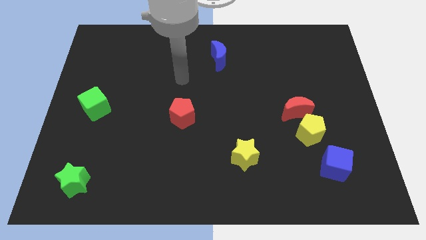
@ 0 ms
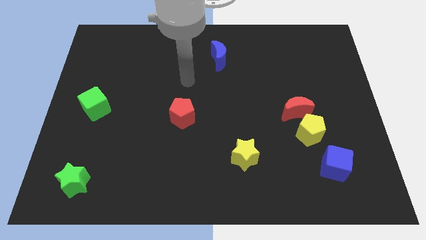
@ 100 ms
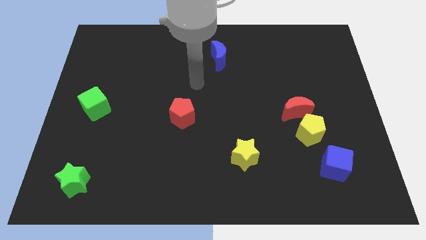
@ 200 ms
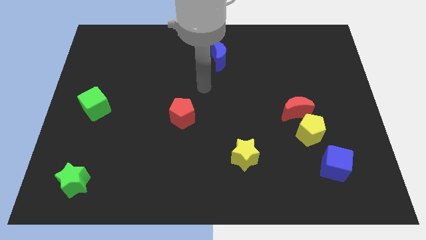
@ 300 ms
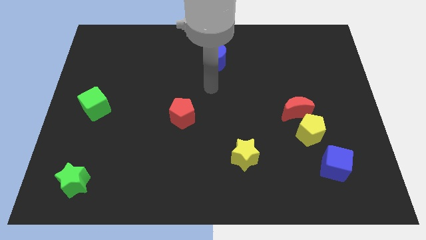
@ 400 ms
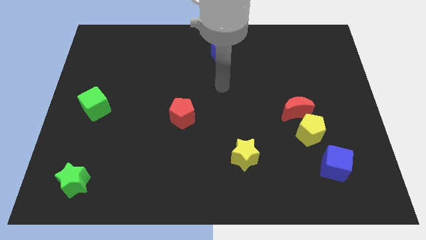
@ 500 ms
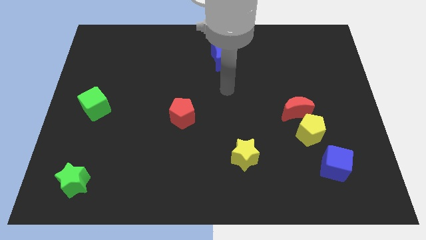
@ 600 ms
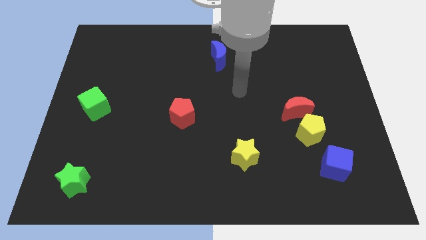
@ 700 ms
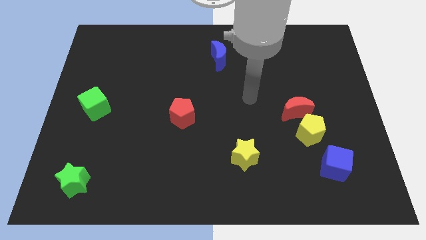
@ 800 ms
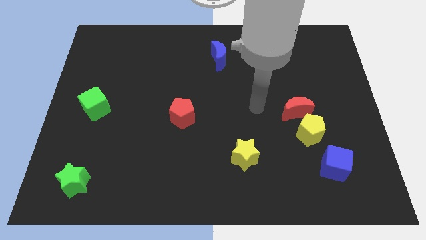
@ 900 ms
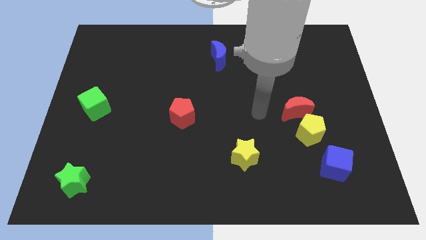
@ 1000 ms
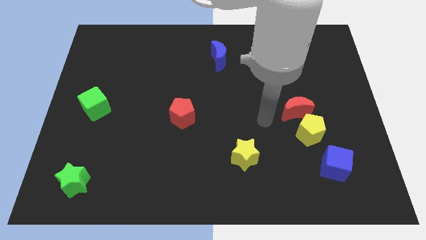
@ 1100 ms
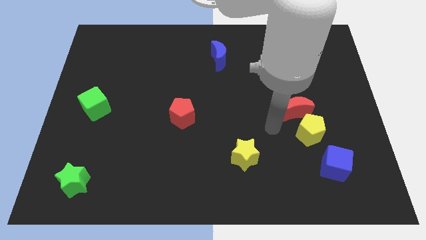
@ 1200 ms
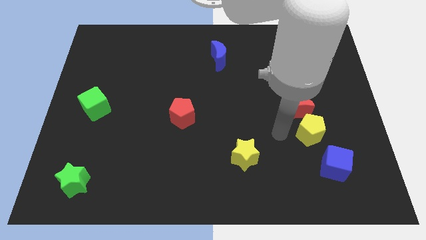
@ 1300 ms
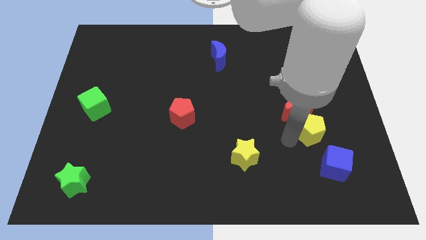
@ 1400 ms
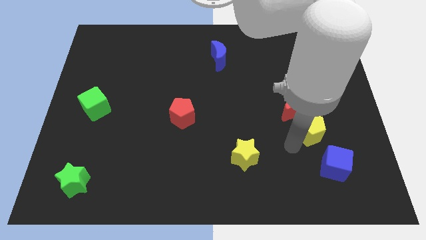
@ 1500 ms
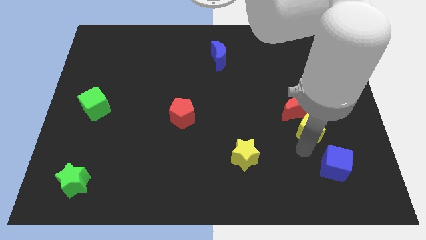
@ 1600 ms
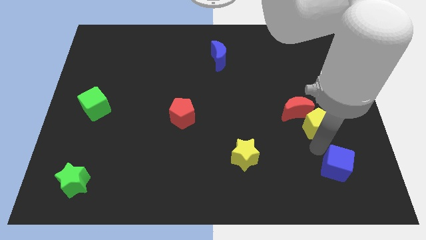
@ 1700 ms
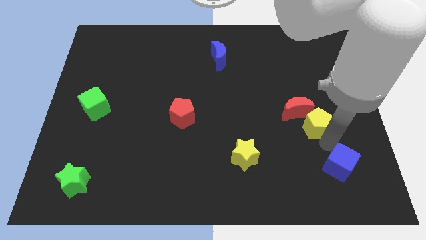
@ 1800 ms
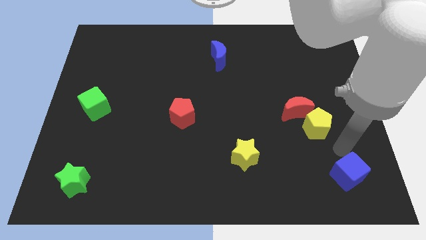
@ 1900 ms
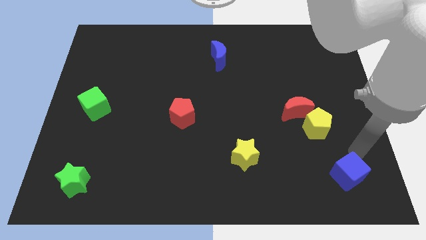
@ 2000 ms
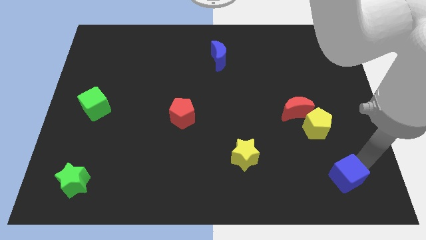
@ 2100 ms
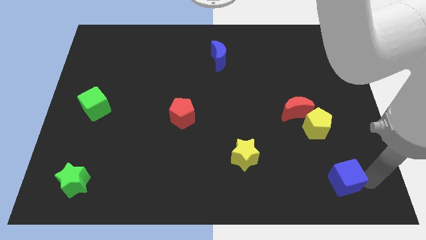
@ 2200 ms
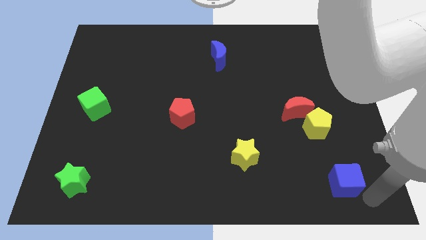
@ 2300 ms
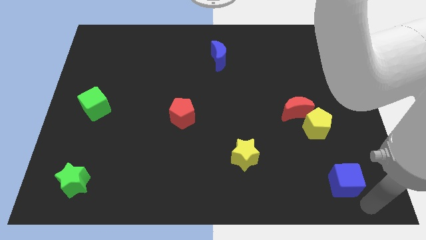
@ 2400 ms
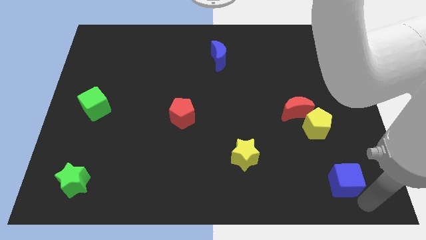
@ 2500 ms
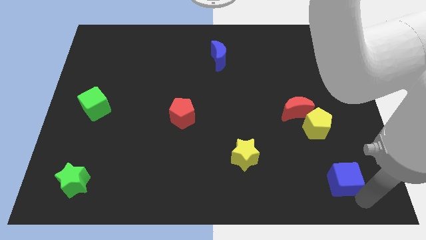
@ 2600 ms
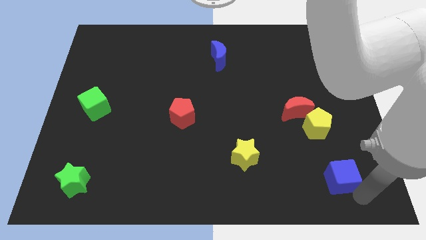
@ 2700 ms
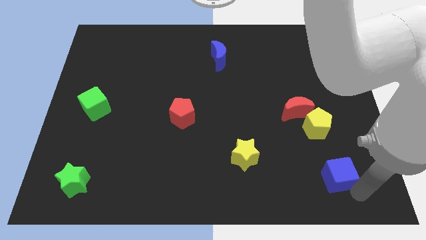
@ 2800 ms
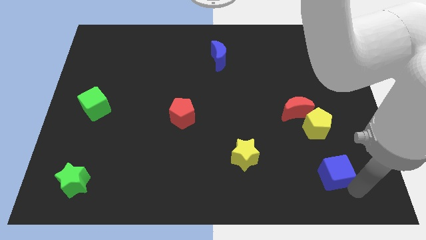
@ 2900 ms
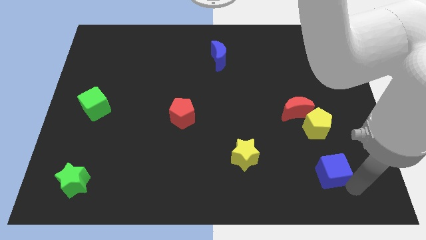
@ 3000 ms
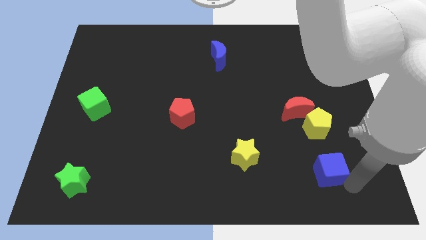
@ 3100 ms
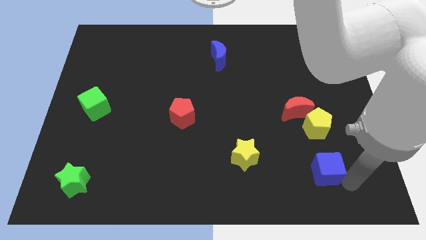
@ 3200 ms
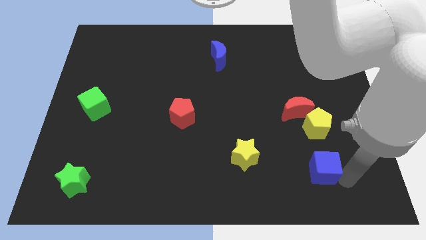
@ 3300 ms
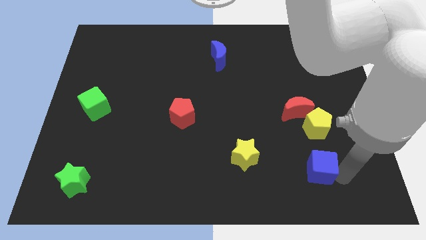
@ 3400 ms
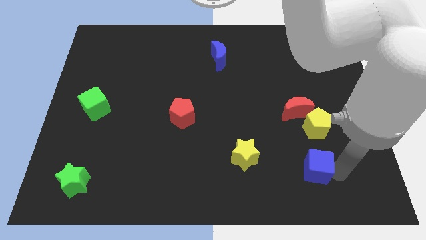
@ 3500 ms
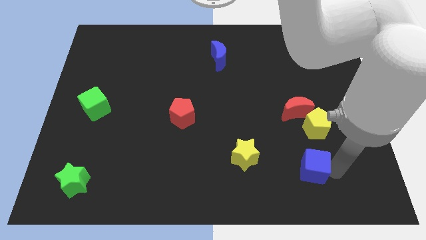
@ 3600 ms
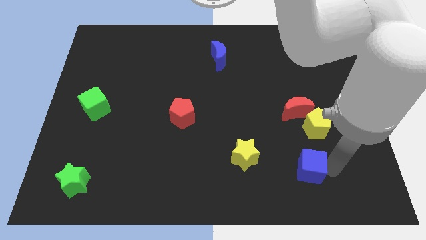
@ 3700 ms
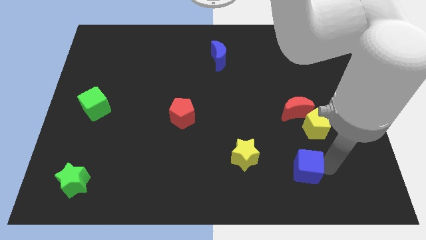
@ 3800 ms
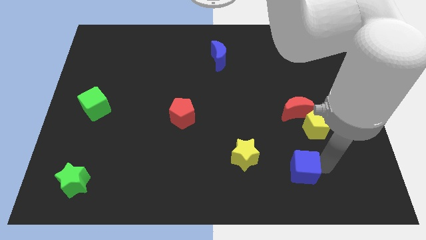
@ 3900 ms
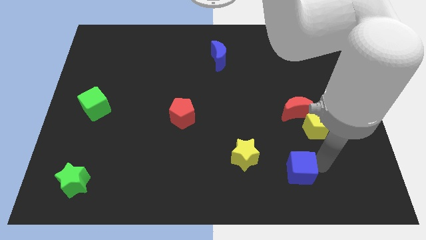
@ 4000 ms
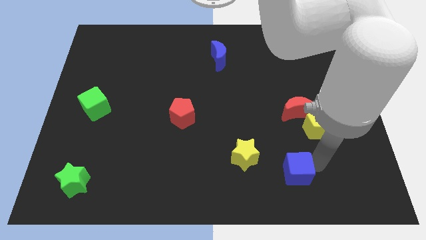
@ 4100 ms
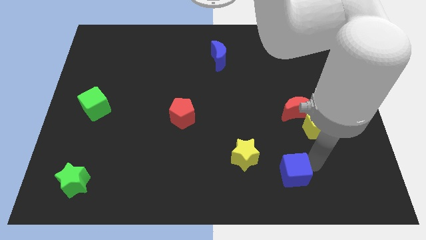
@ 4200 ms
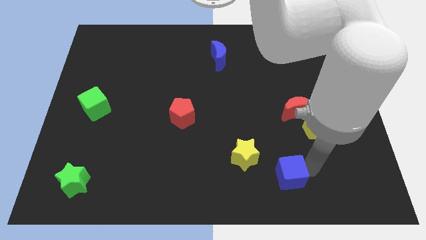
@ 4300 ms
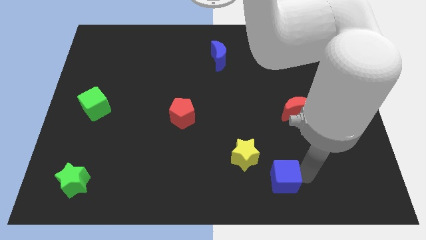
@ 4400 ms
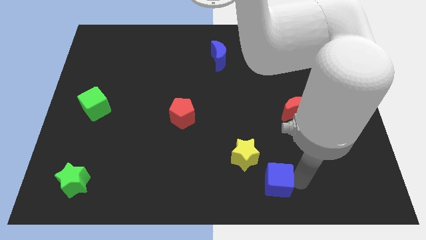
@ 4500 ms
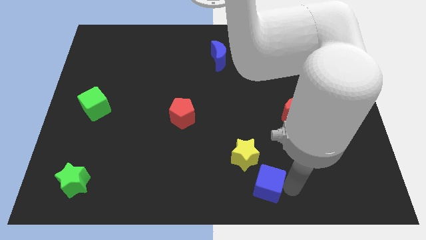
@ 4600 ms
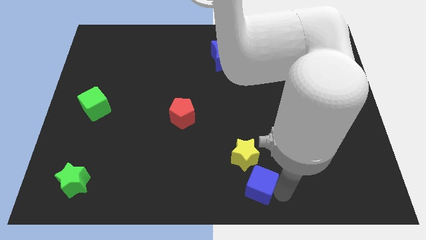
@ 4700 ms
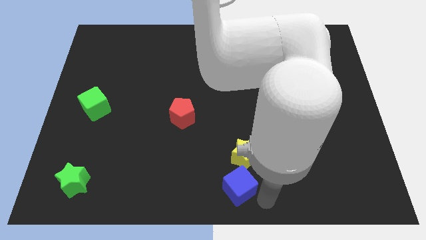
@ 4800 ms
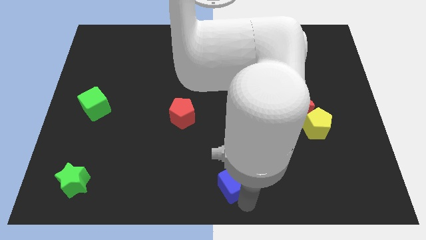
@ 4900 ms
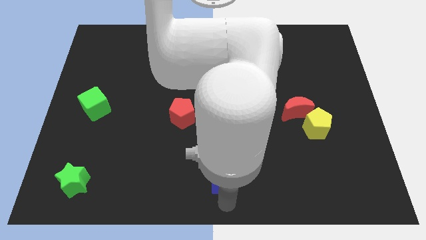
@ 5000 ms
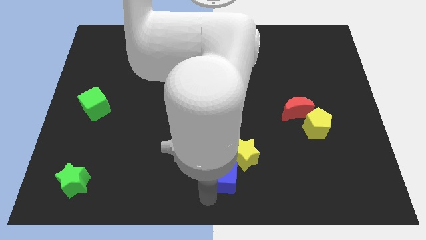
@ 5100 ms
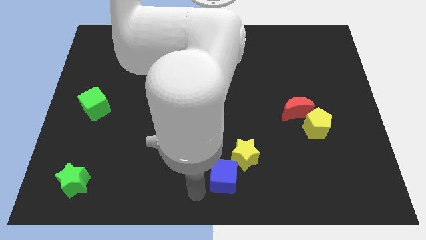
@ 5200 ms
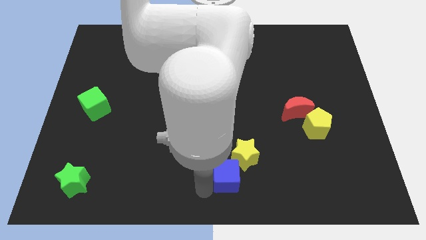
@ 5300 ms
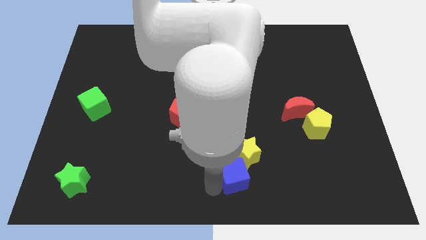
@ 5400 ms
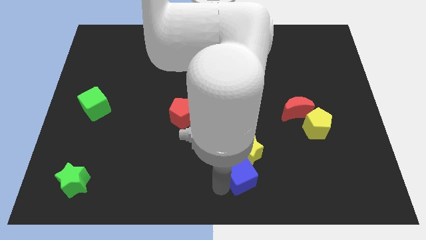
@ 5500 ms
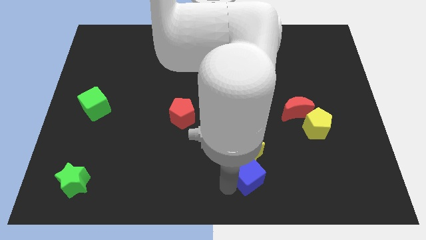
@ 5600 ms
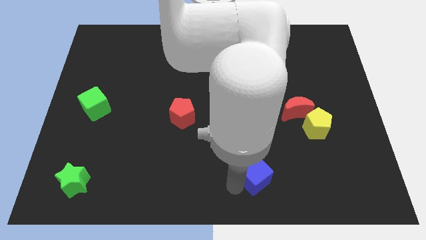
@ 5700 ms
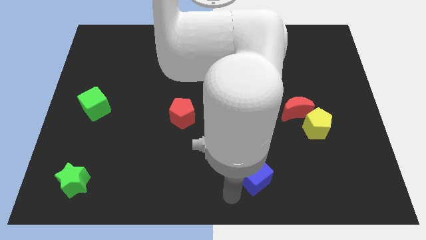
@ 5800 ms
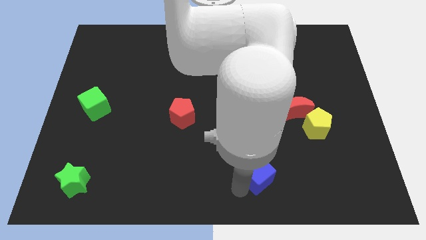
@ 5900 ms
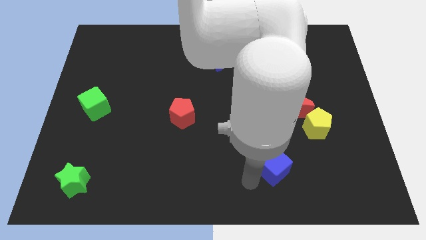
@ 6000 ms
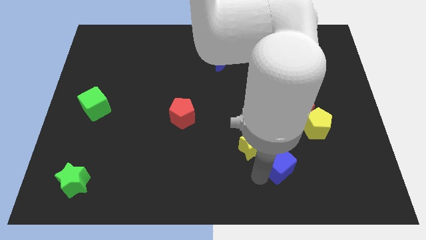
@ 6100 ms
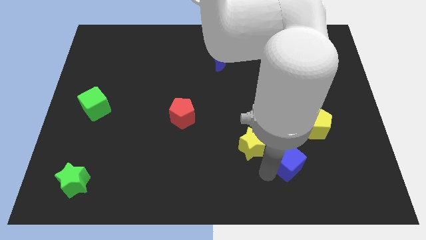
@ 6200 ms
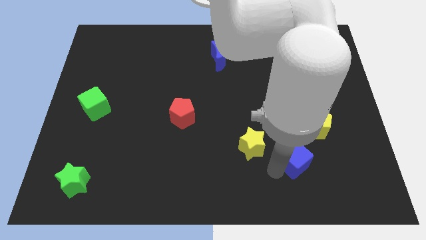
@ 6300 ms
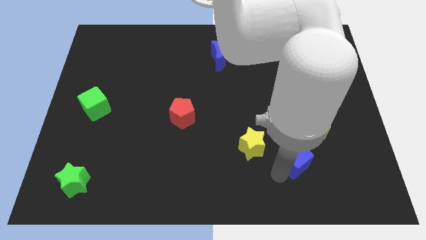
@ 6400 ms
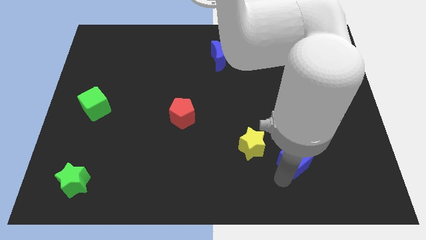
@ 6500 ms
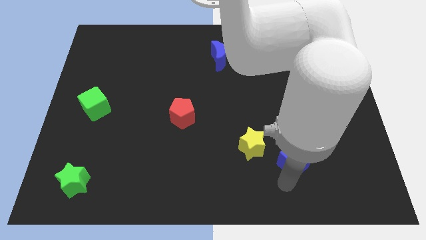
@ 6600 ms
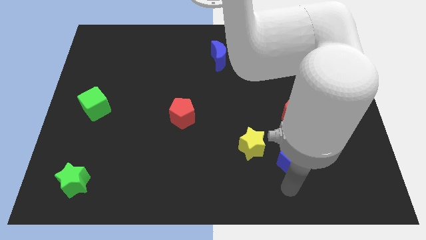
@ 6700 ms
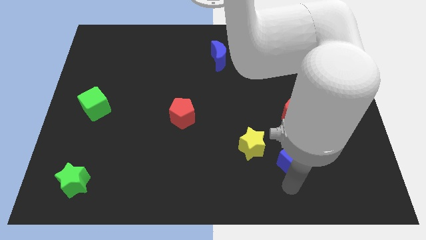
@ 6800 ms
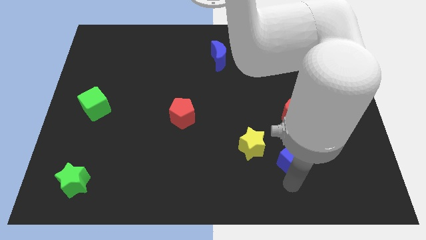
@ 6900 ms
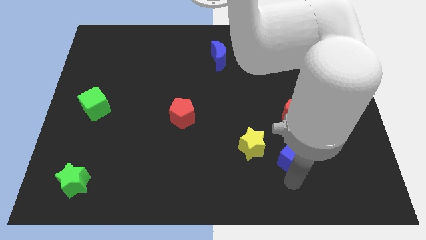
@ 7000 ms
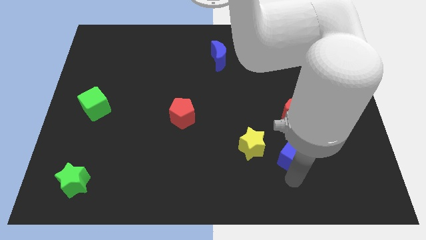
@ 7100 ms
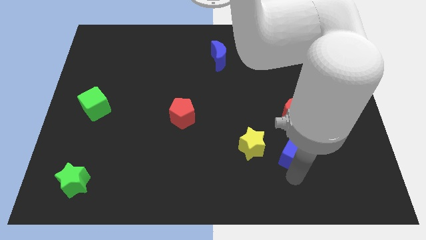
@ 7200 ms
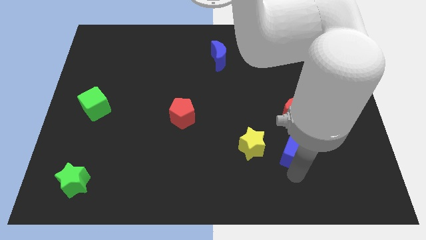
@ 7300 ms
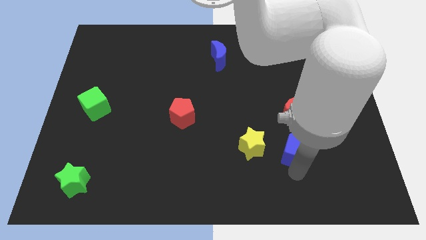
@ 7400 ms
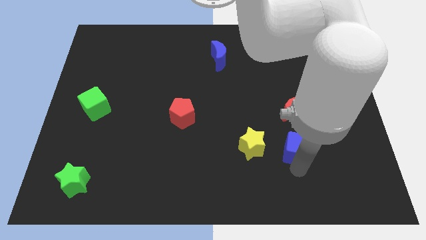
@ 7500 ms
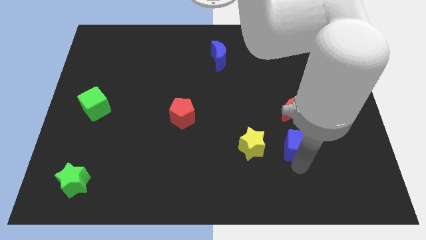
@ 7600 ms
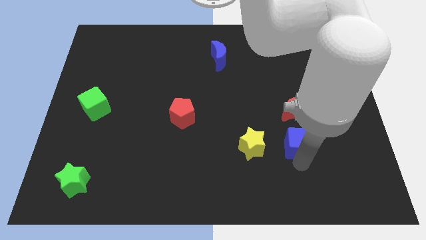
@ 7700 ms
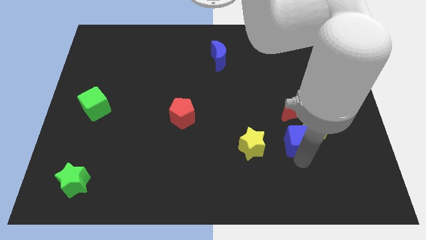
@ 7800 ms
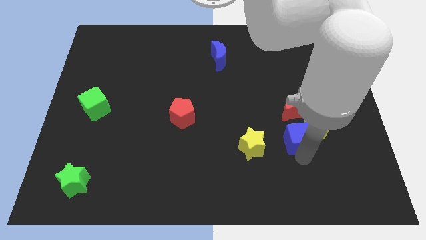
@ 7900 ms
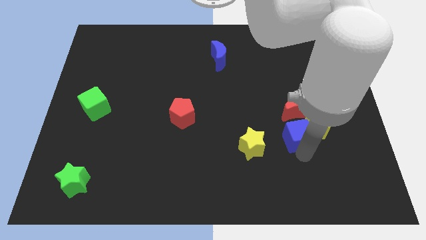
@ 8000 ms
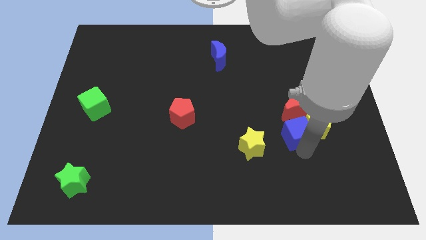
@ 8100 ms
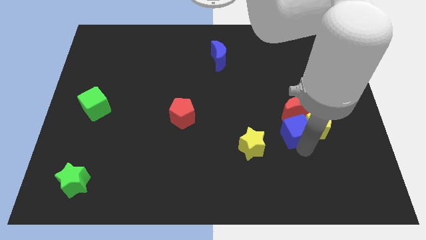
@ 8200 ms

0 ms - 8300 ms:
slide the blue cube to the top left of the yellow pentagon
